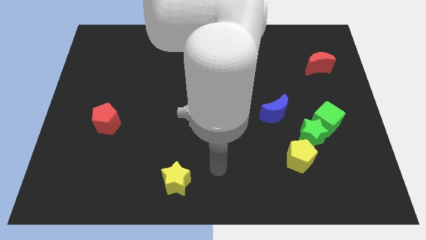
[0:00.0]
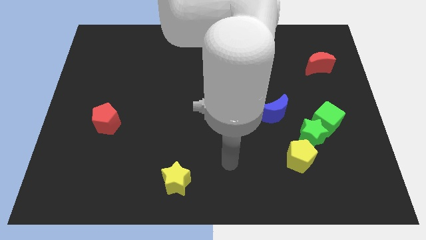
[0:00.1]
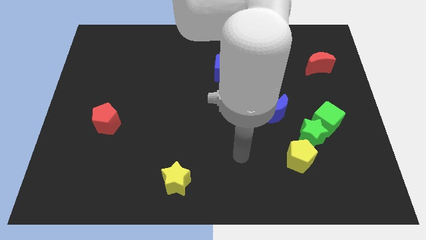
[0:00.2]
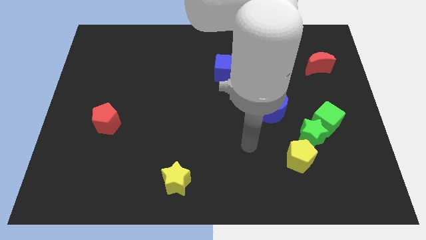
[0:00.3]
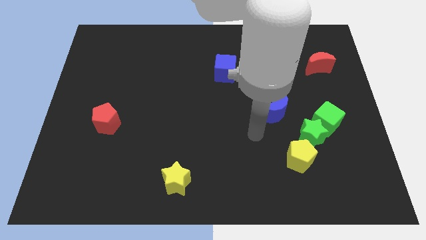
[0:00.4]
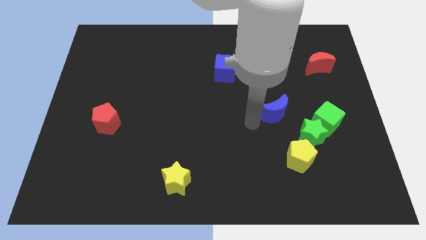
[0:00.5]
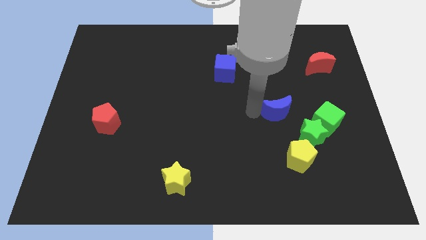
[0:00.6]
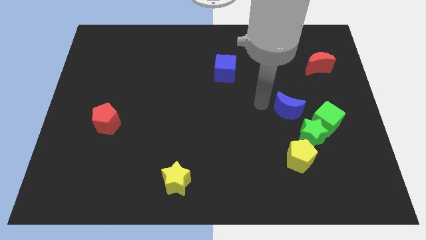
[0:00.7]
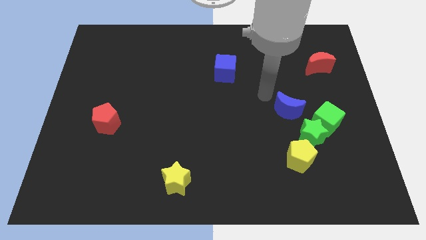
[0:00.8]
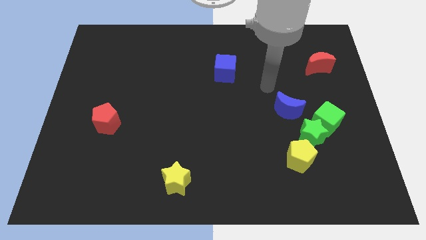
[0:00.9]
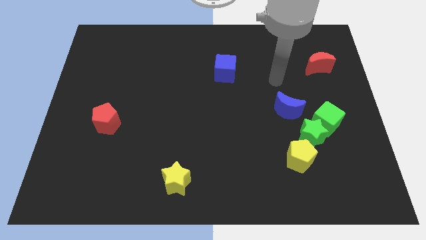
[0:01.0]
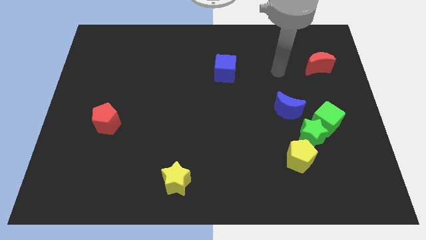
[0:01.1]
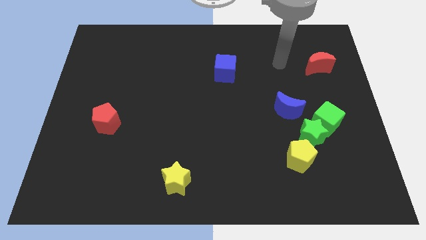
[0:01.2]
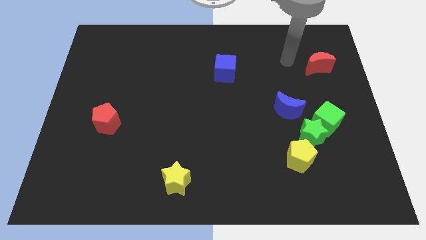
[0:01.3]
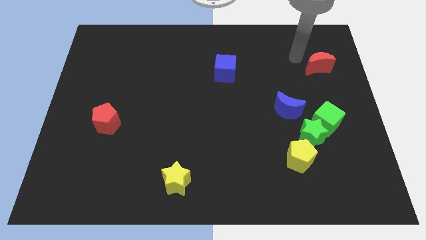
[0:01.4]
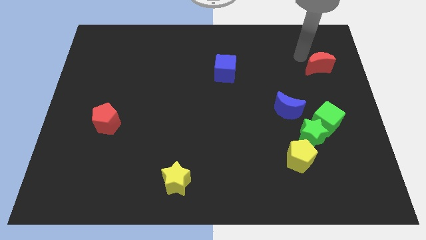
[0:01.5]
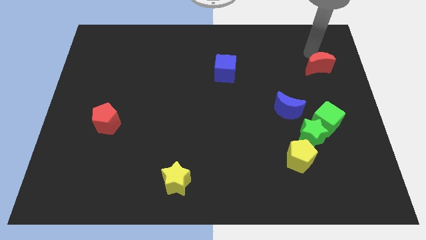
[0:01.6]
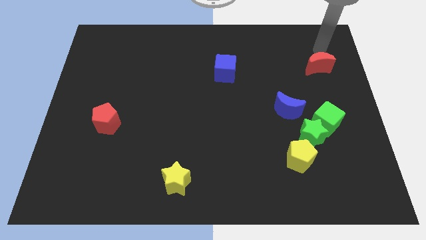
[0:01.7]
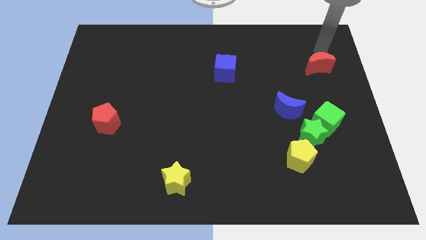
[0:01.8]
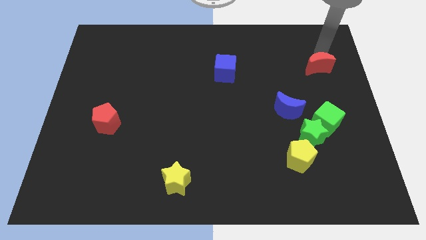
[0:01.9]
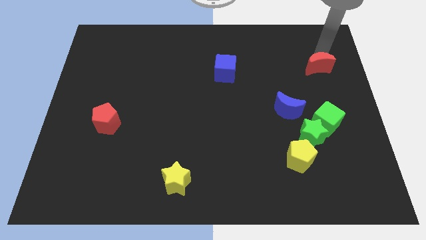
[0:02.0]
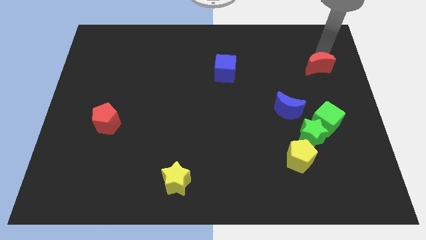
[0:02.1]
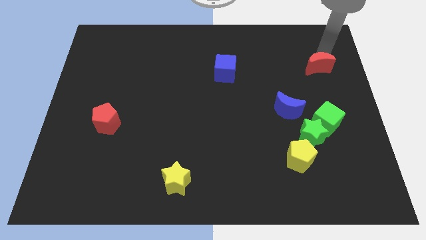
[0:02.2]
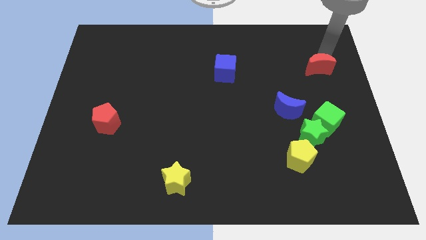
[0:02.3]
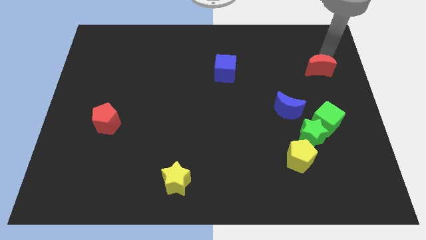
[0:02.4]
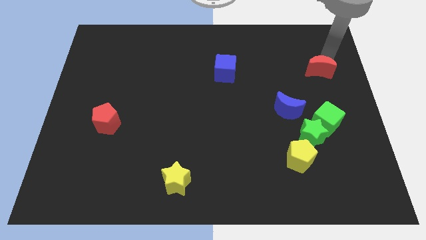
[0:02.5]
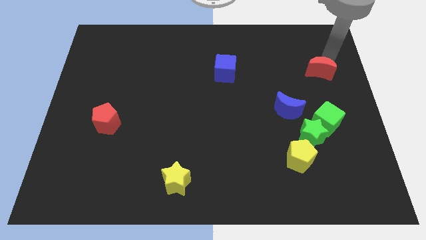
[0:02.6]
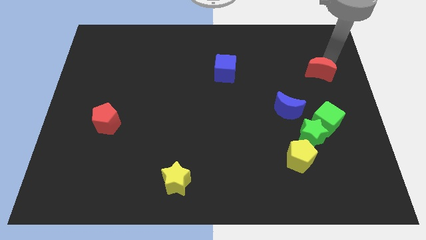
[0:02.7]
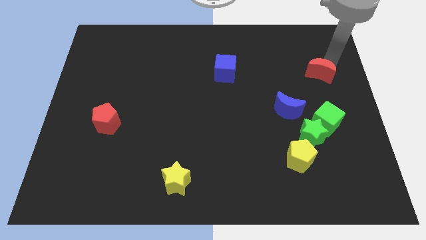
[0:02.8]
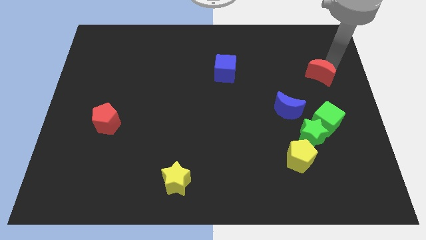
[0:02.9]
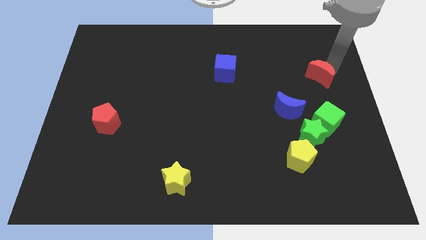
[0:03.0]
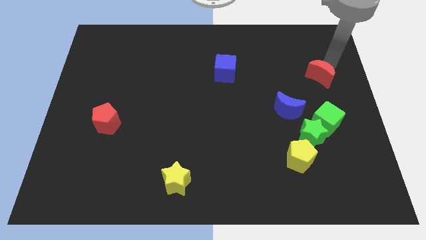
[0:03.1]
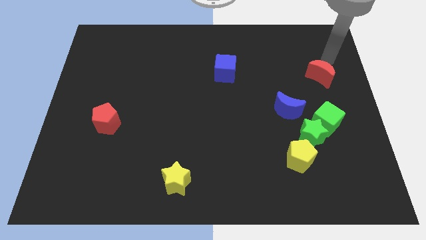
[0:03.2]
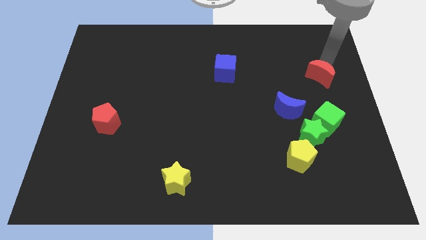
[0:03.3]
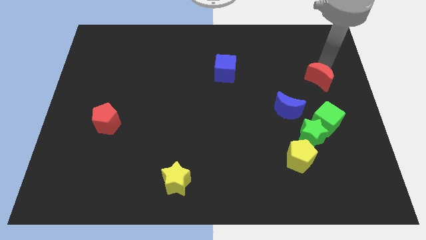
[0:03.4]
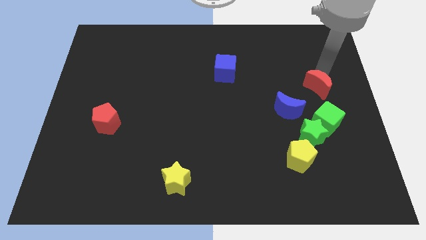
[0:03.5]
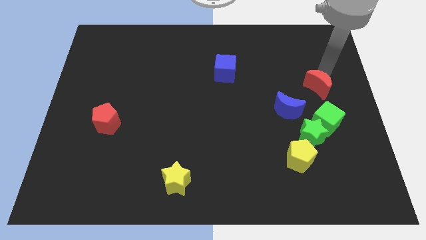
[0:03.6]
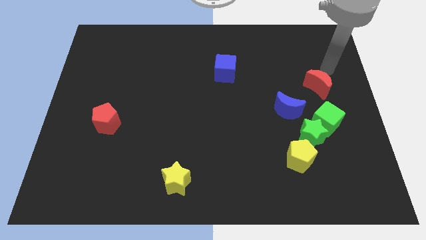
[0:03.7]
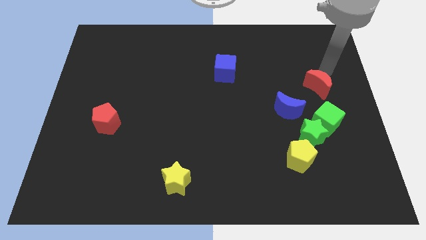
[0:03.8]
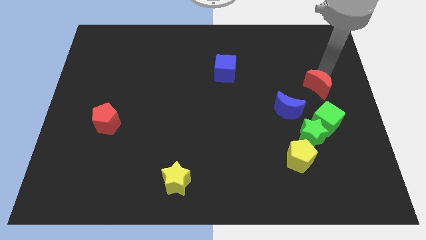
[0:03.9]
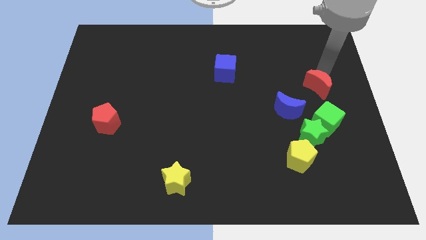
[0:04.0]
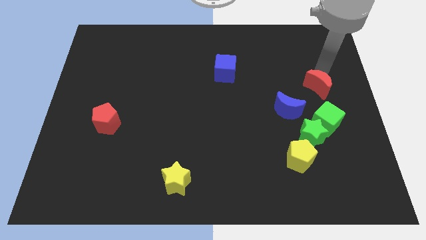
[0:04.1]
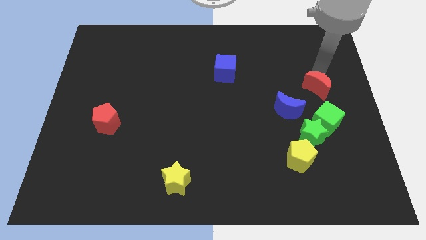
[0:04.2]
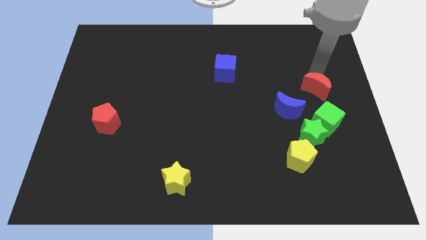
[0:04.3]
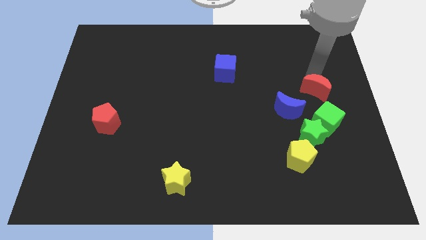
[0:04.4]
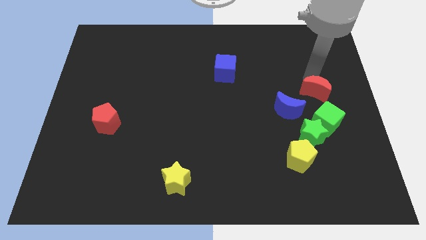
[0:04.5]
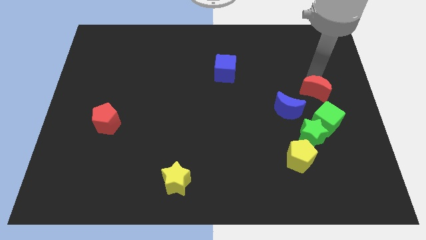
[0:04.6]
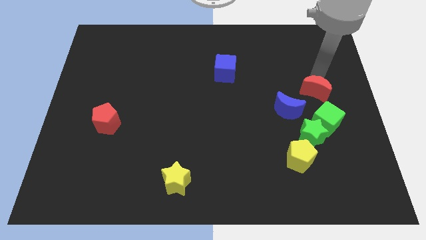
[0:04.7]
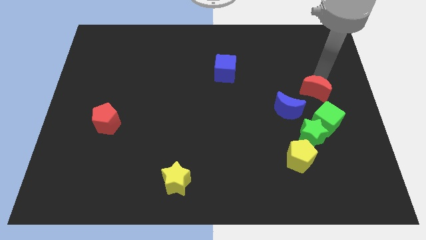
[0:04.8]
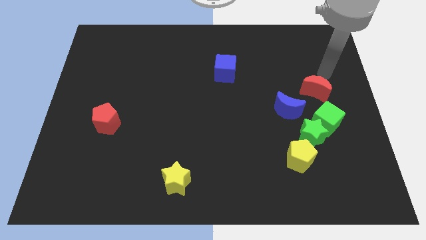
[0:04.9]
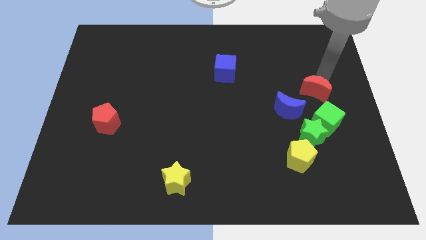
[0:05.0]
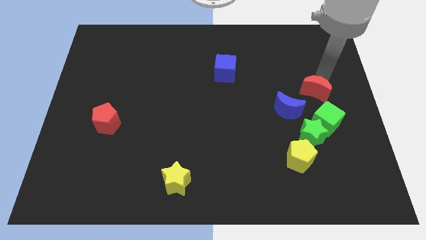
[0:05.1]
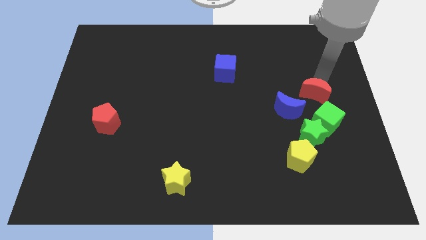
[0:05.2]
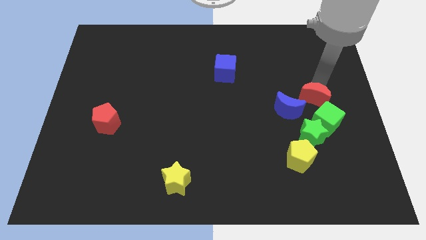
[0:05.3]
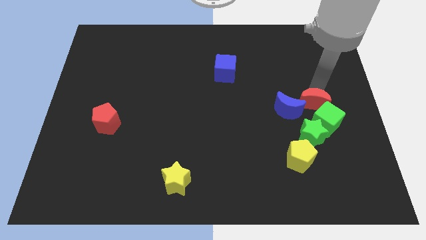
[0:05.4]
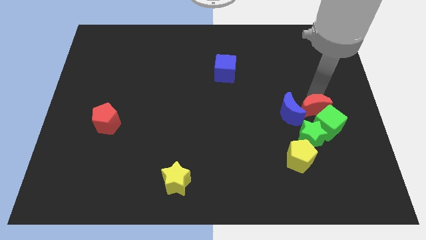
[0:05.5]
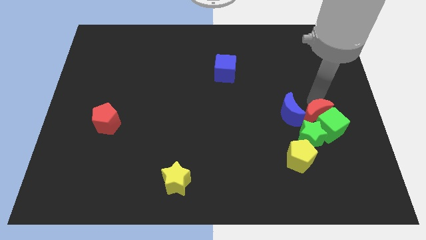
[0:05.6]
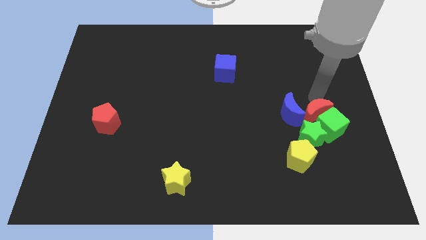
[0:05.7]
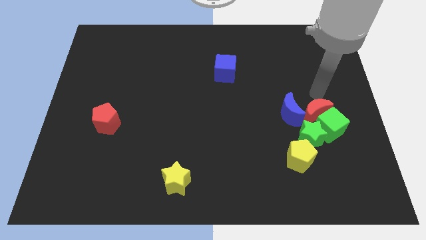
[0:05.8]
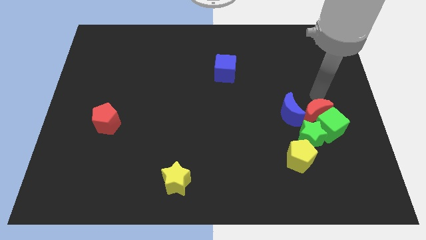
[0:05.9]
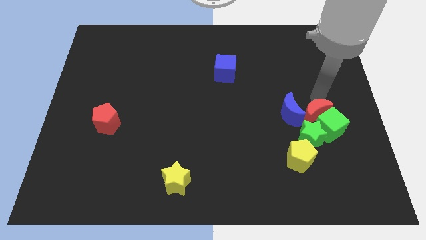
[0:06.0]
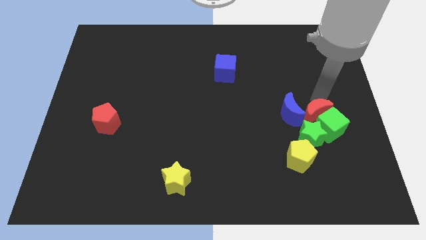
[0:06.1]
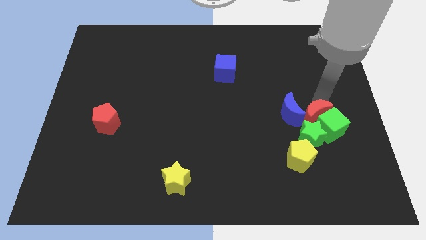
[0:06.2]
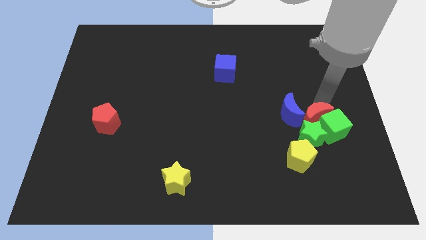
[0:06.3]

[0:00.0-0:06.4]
slide the red moon to the green star

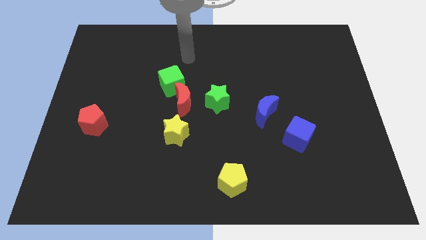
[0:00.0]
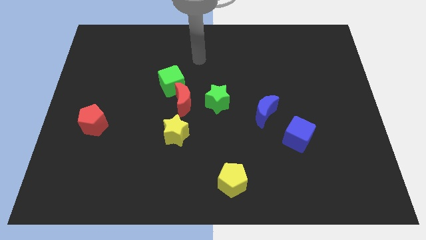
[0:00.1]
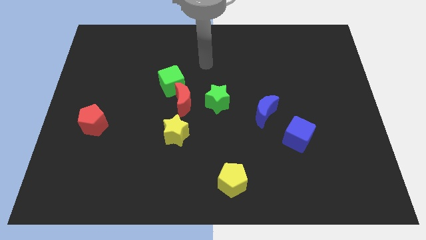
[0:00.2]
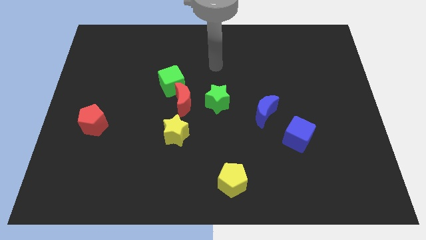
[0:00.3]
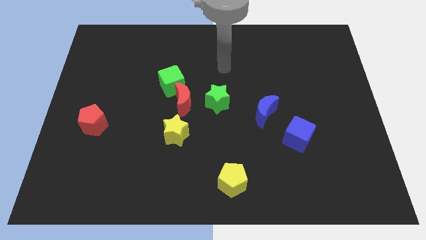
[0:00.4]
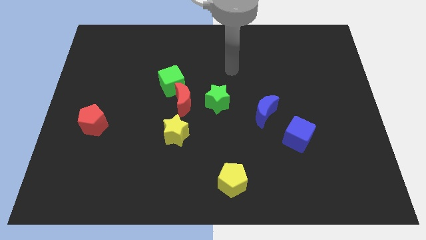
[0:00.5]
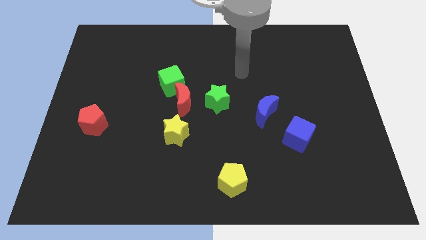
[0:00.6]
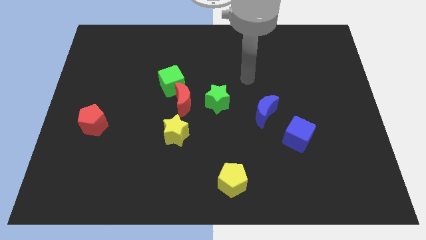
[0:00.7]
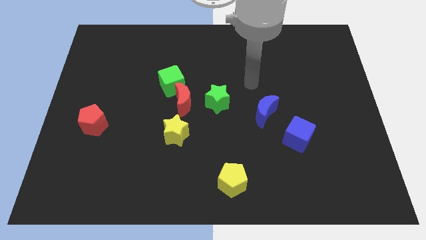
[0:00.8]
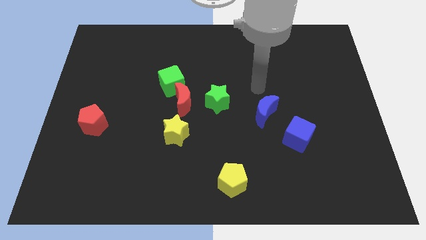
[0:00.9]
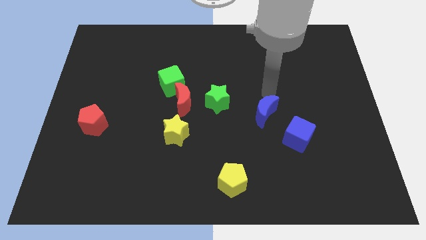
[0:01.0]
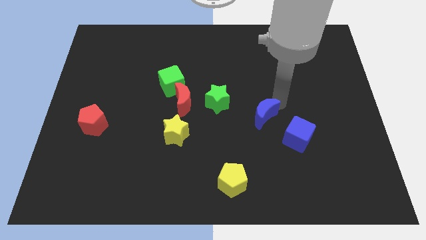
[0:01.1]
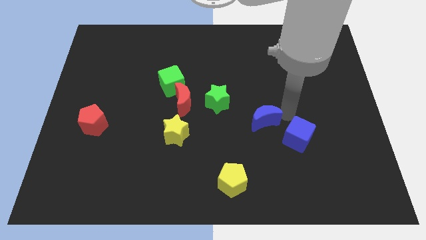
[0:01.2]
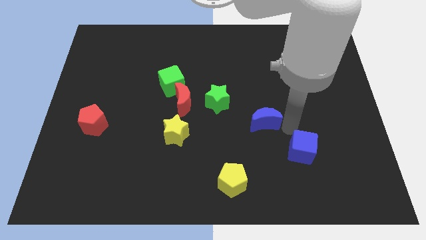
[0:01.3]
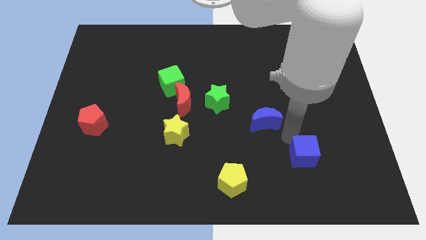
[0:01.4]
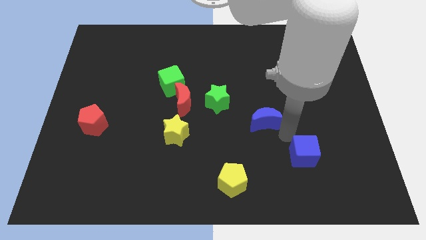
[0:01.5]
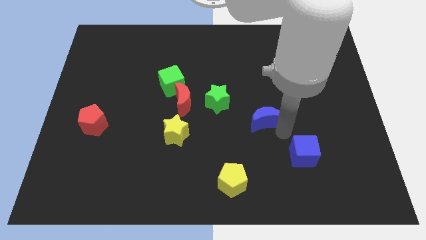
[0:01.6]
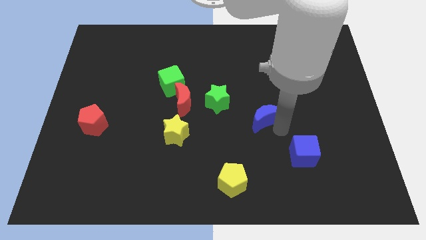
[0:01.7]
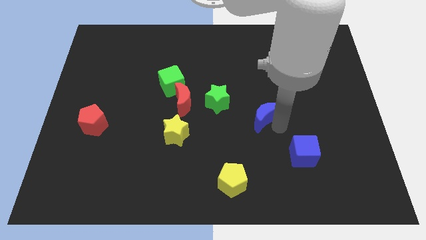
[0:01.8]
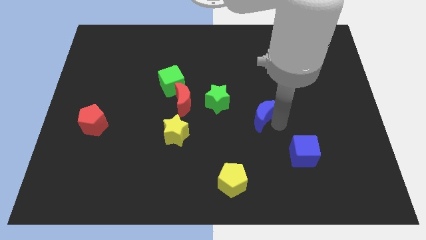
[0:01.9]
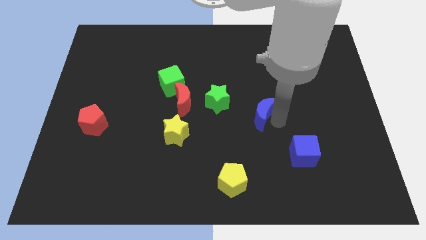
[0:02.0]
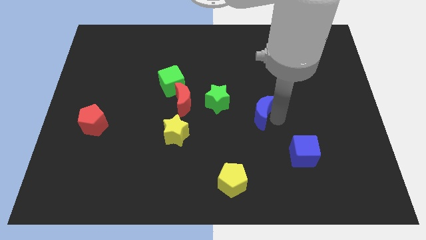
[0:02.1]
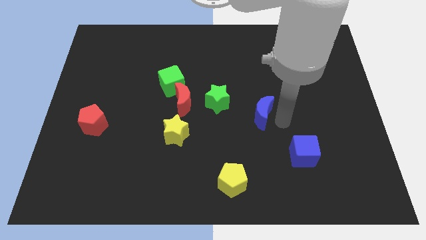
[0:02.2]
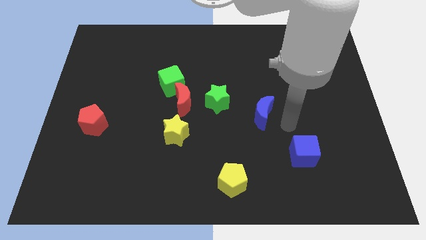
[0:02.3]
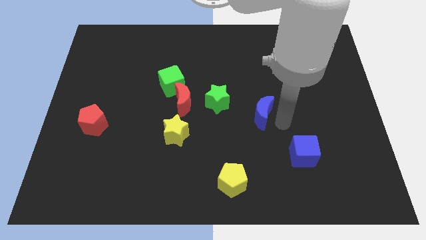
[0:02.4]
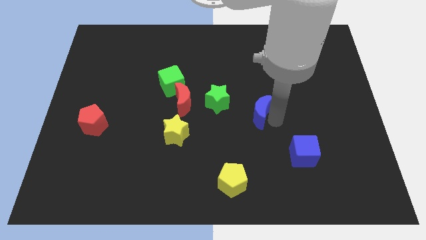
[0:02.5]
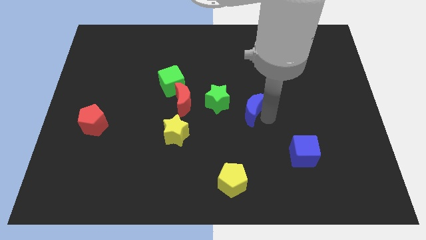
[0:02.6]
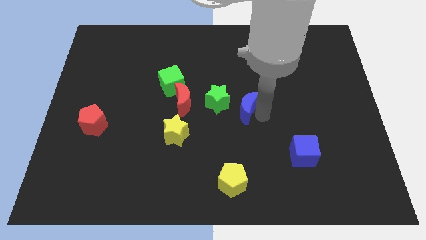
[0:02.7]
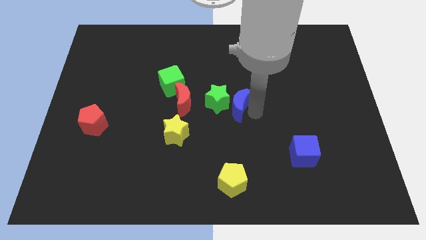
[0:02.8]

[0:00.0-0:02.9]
push the blue moon to the green star
